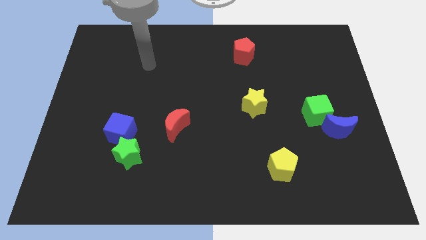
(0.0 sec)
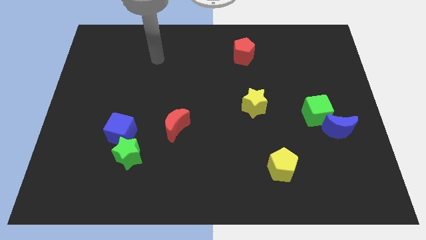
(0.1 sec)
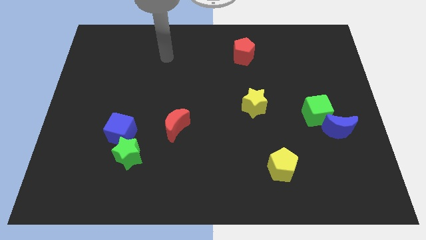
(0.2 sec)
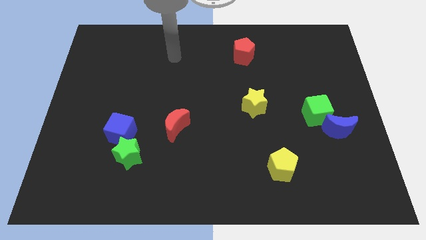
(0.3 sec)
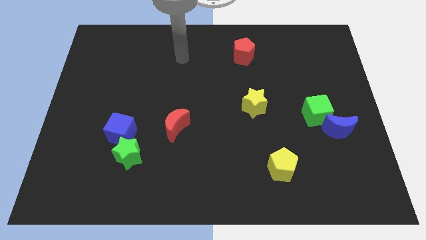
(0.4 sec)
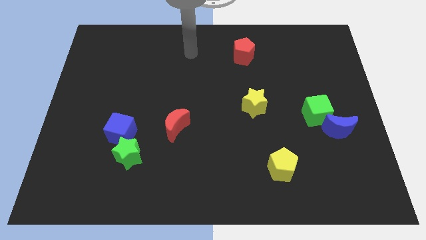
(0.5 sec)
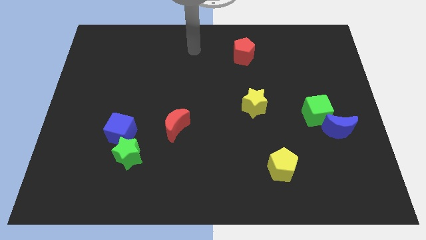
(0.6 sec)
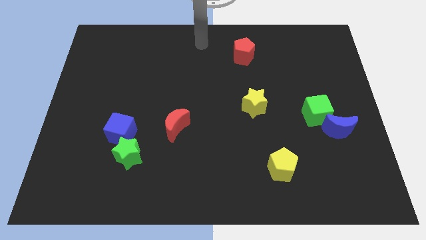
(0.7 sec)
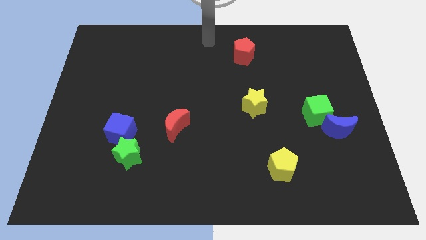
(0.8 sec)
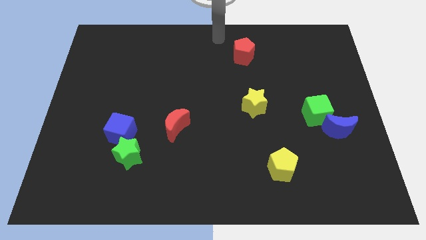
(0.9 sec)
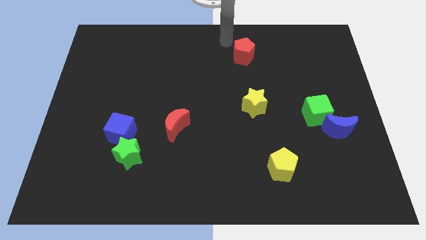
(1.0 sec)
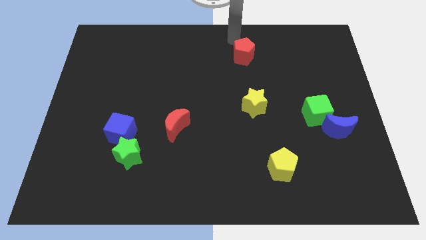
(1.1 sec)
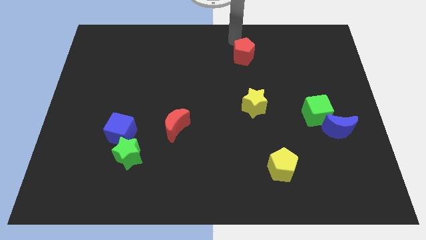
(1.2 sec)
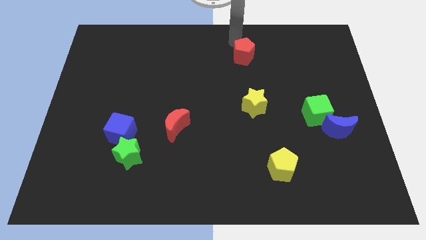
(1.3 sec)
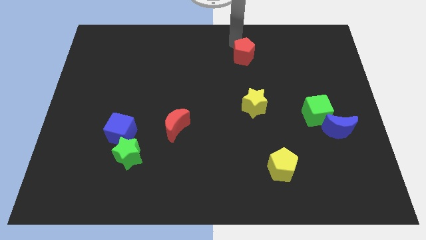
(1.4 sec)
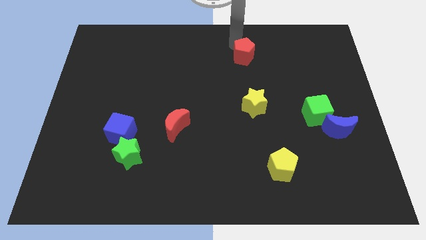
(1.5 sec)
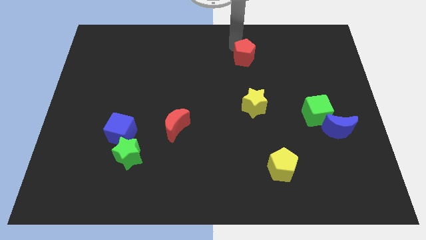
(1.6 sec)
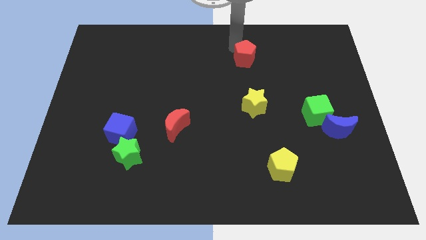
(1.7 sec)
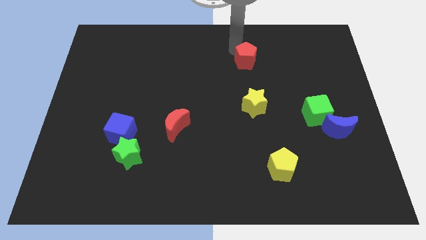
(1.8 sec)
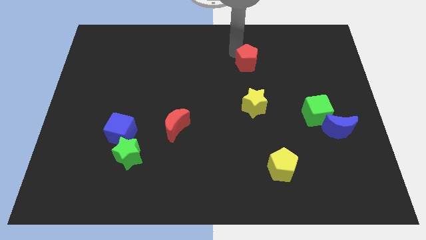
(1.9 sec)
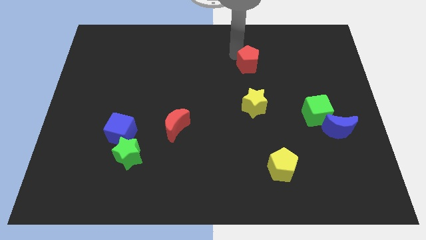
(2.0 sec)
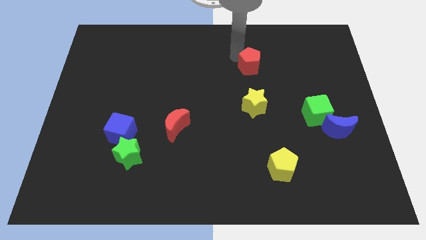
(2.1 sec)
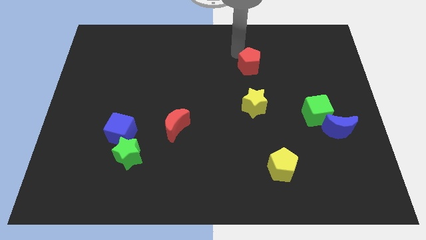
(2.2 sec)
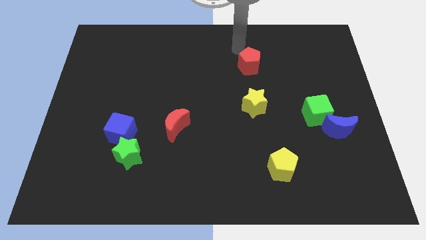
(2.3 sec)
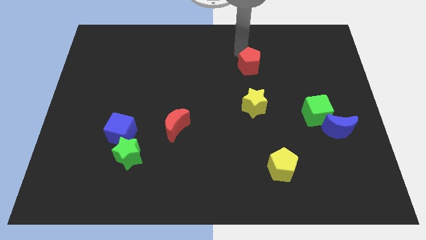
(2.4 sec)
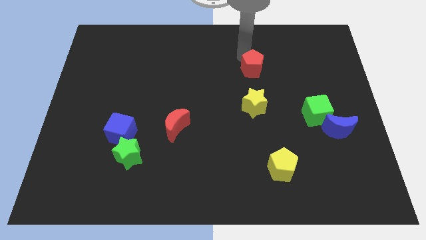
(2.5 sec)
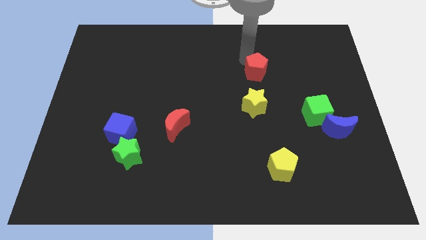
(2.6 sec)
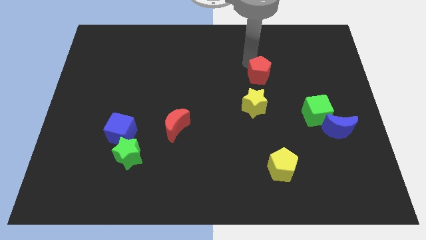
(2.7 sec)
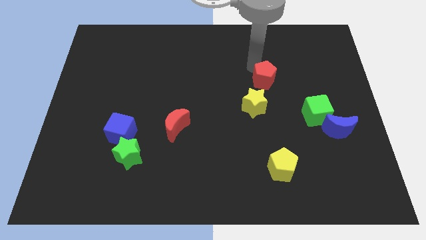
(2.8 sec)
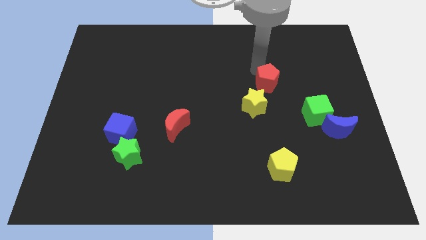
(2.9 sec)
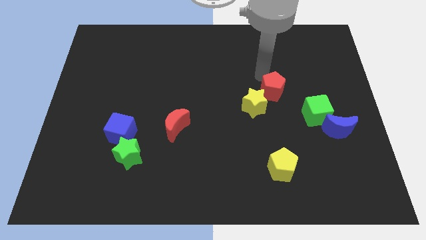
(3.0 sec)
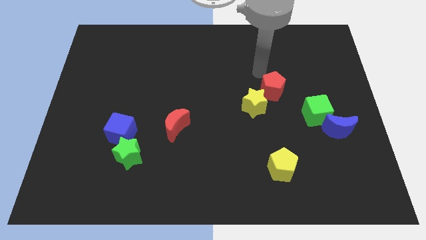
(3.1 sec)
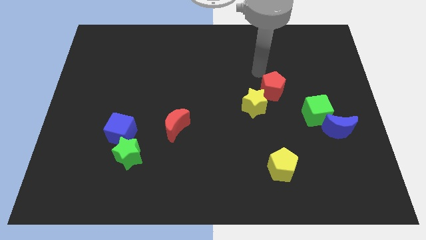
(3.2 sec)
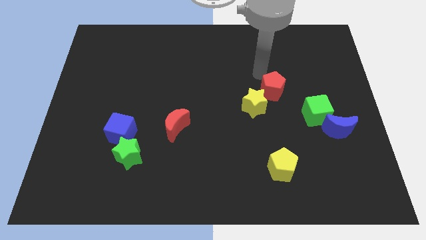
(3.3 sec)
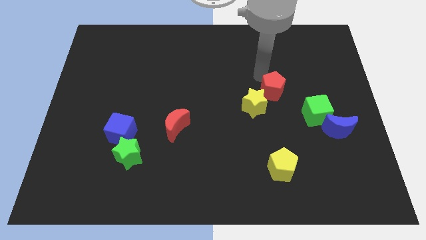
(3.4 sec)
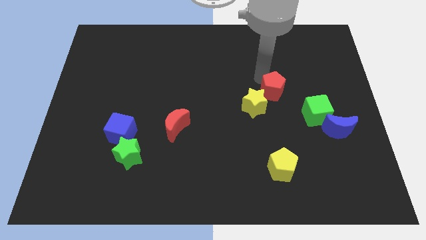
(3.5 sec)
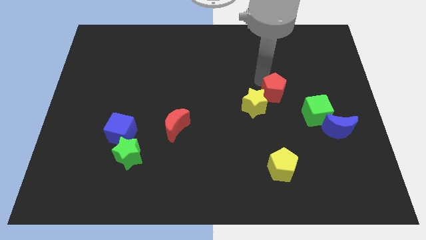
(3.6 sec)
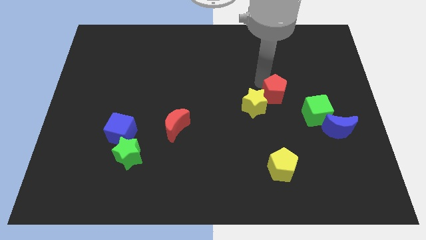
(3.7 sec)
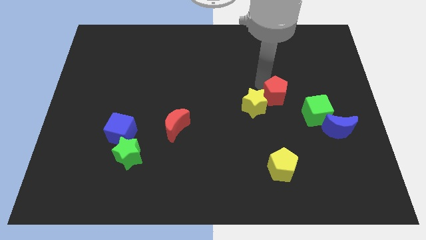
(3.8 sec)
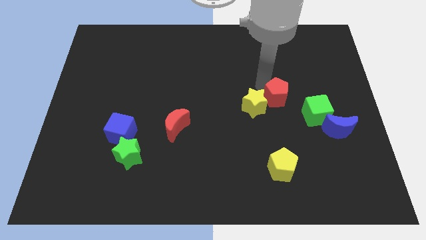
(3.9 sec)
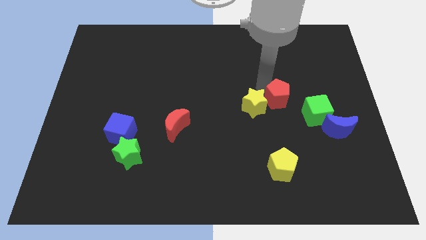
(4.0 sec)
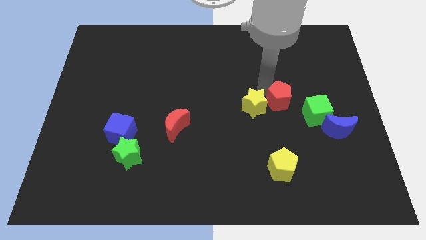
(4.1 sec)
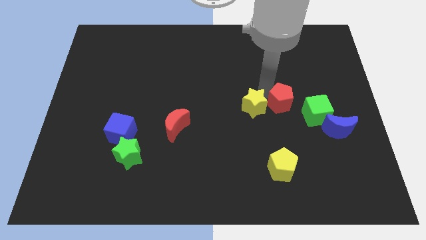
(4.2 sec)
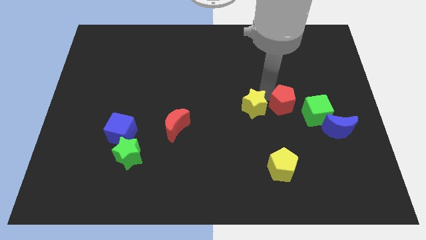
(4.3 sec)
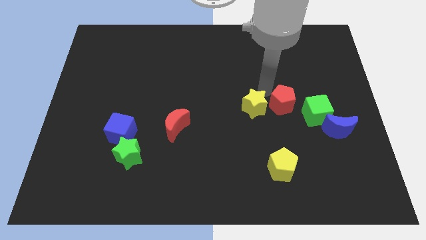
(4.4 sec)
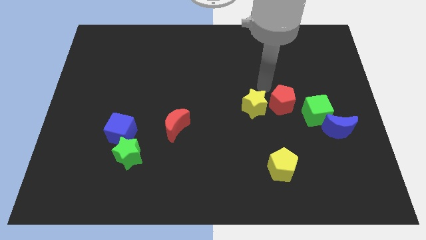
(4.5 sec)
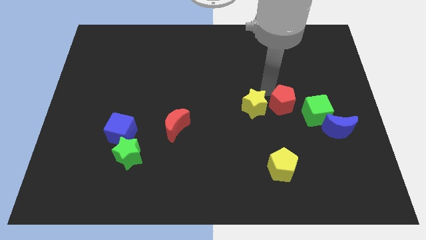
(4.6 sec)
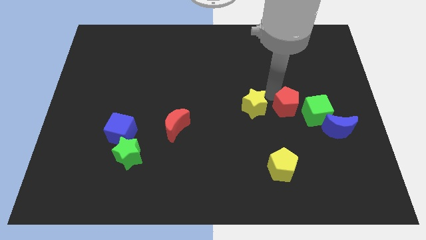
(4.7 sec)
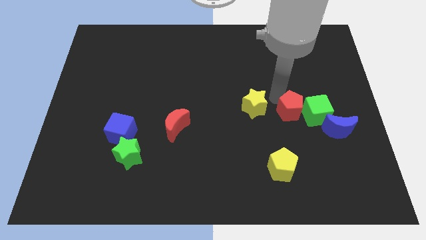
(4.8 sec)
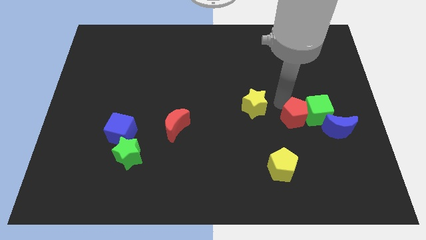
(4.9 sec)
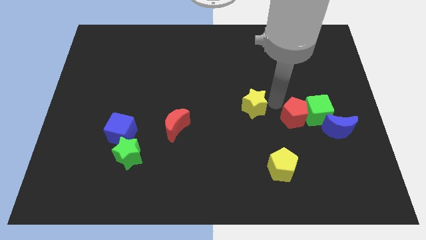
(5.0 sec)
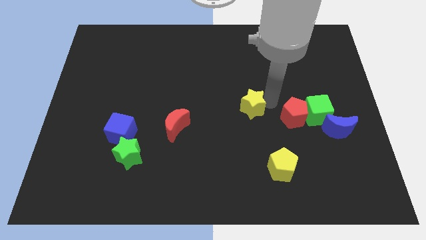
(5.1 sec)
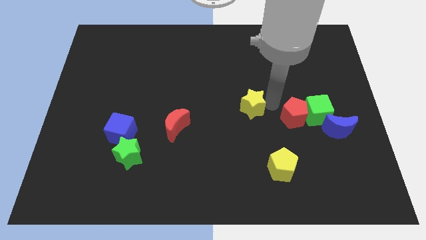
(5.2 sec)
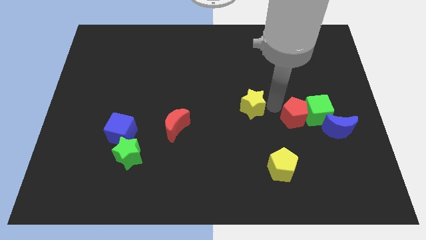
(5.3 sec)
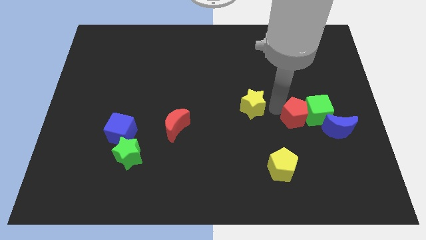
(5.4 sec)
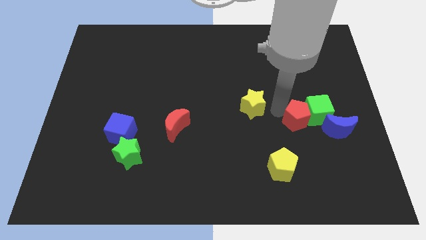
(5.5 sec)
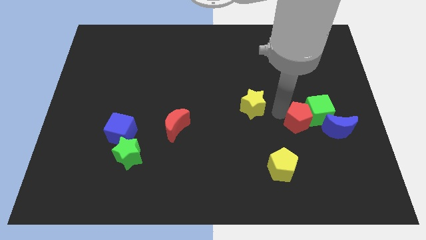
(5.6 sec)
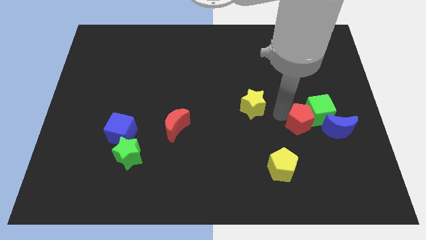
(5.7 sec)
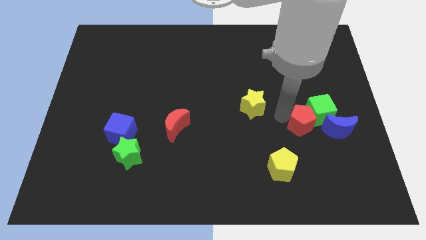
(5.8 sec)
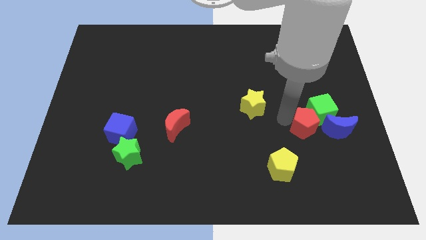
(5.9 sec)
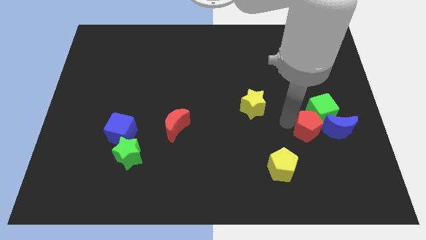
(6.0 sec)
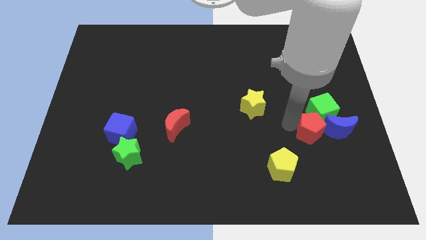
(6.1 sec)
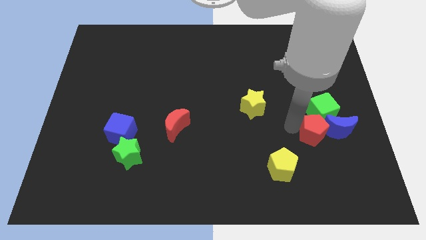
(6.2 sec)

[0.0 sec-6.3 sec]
slide the red pentagon close to the blue moon

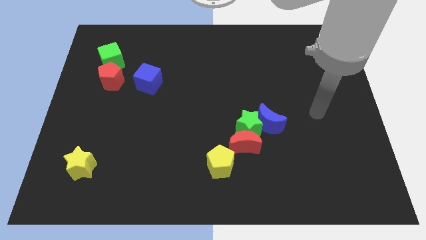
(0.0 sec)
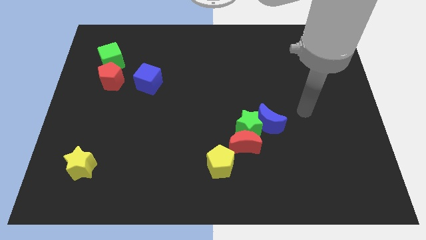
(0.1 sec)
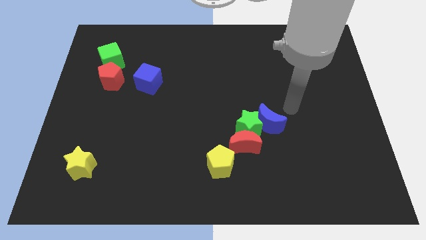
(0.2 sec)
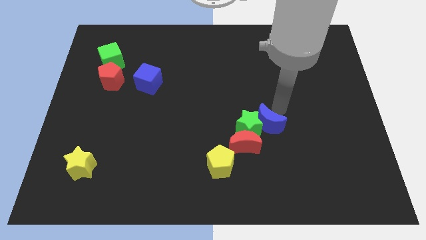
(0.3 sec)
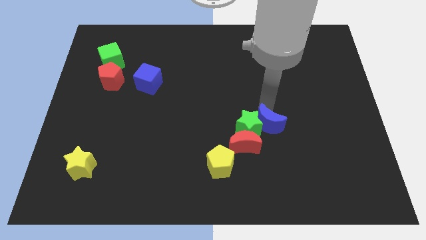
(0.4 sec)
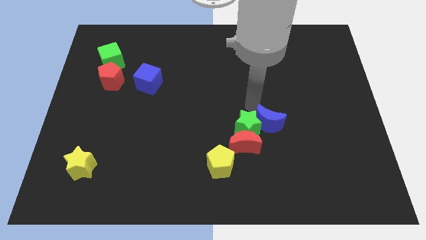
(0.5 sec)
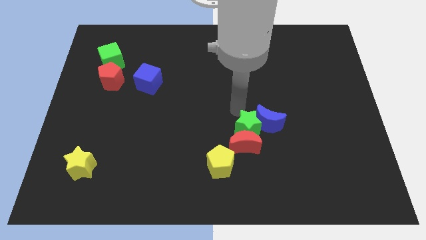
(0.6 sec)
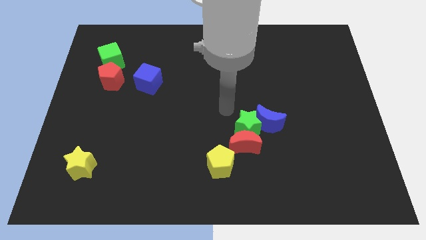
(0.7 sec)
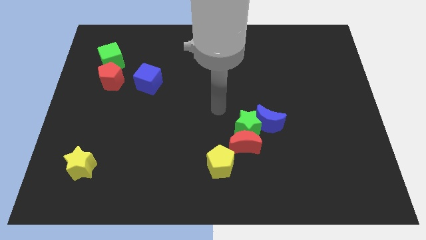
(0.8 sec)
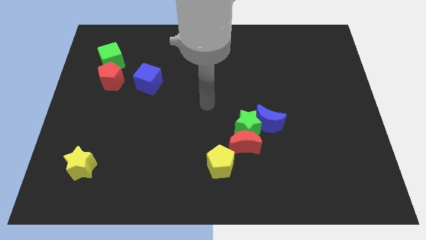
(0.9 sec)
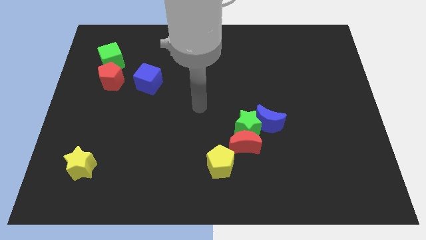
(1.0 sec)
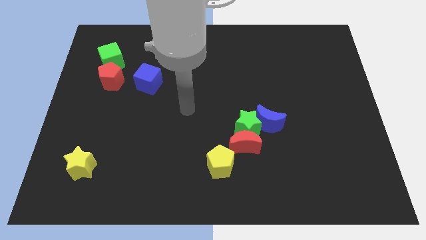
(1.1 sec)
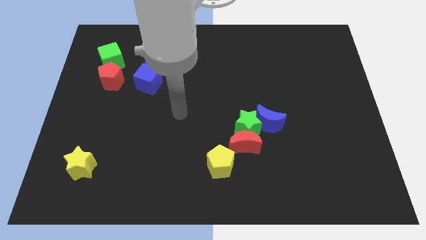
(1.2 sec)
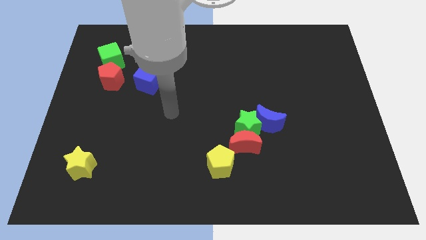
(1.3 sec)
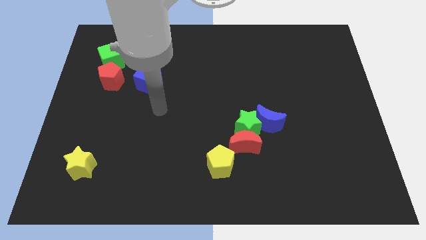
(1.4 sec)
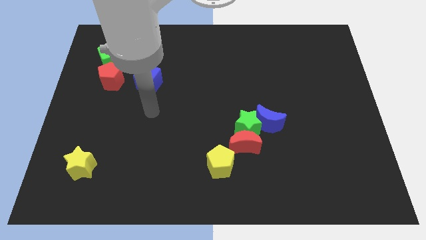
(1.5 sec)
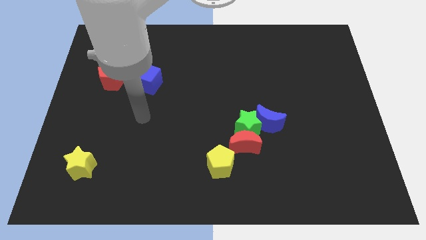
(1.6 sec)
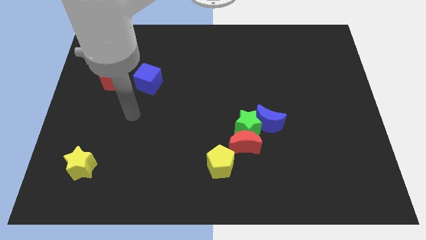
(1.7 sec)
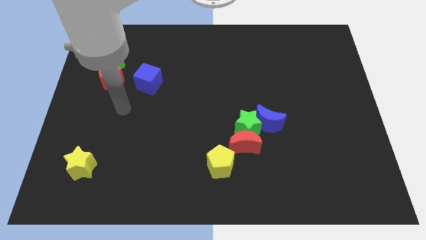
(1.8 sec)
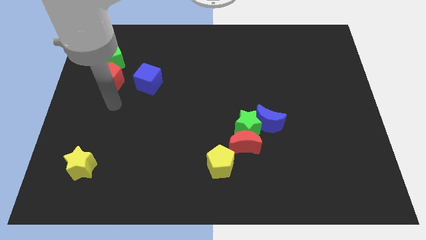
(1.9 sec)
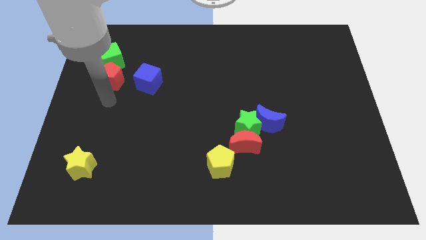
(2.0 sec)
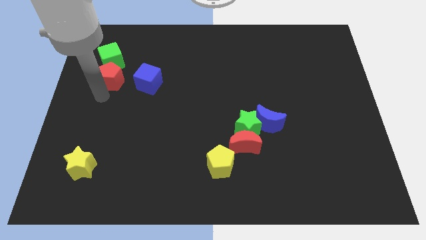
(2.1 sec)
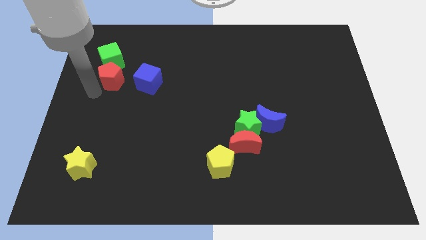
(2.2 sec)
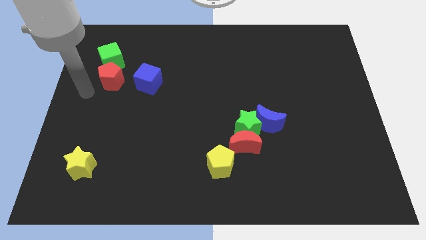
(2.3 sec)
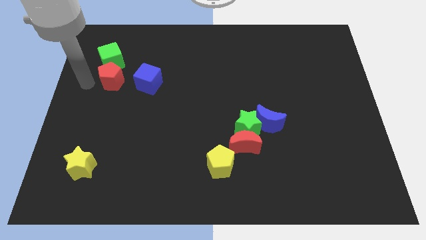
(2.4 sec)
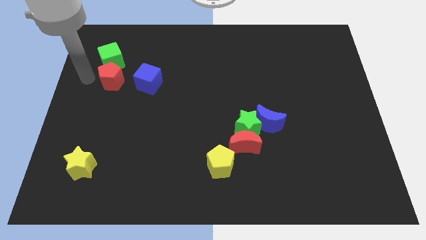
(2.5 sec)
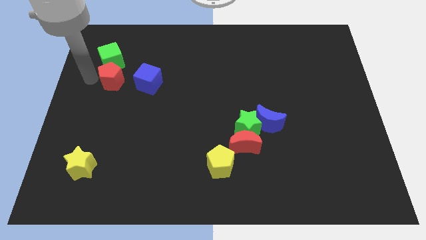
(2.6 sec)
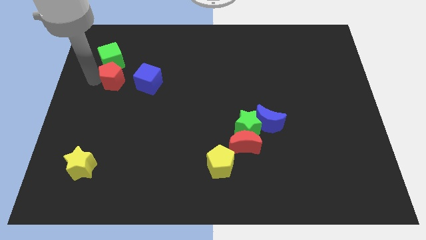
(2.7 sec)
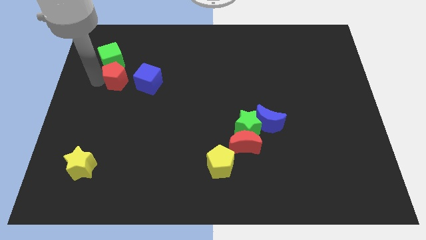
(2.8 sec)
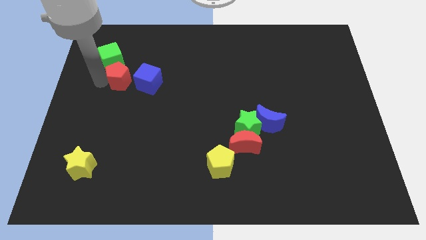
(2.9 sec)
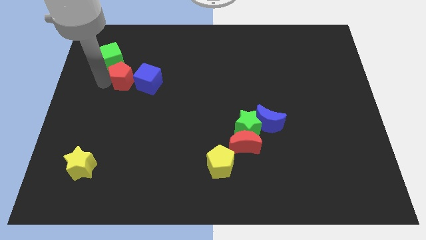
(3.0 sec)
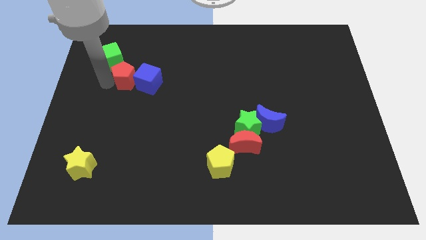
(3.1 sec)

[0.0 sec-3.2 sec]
move the red pentagon close to the blue cube
